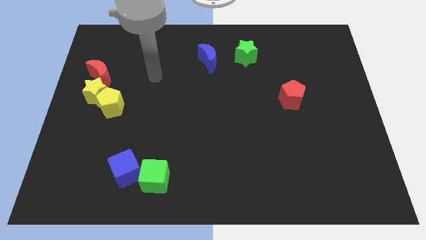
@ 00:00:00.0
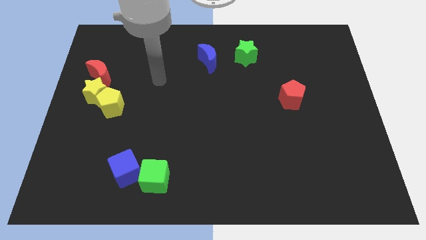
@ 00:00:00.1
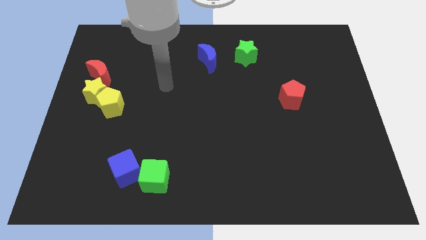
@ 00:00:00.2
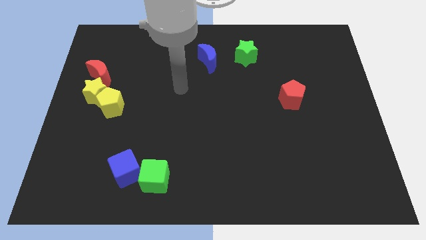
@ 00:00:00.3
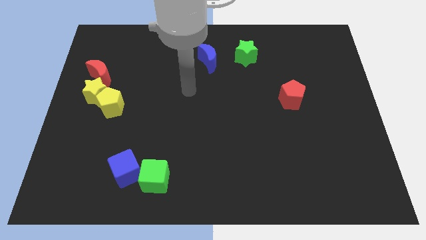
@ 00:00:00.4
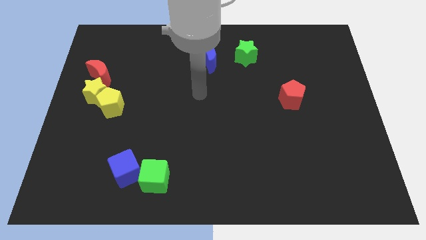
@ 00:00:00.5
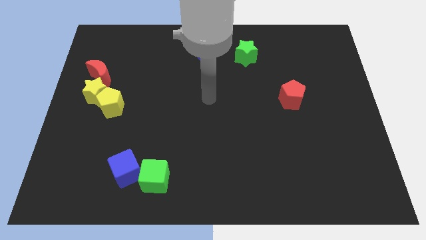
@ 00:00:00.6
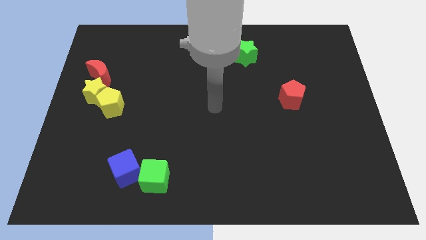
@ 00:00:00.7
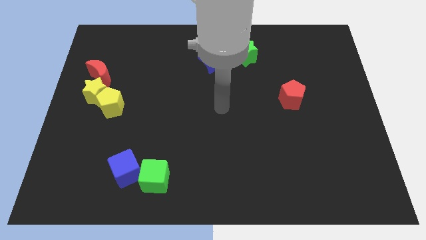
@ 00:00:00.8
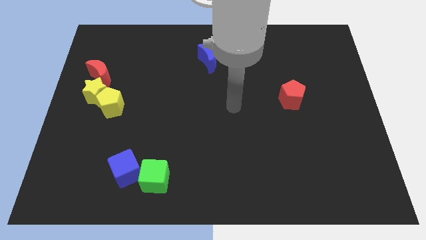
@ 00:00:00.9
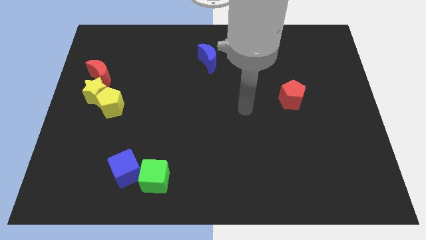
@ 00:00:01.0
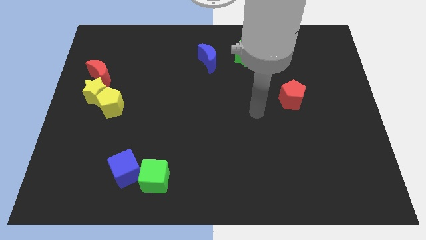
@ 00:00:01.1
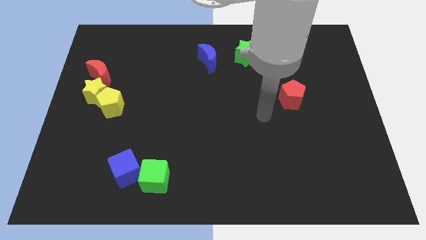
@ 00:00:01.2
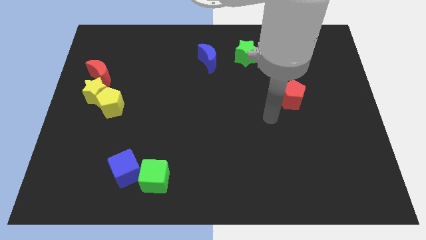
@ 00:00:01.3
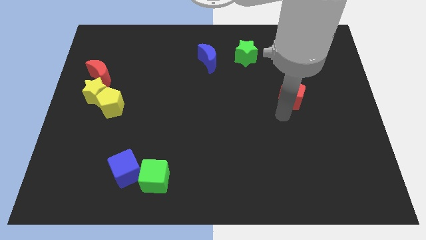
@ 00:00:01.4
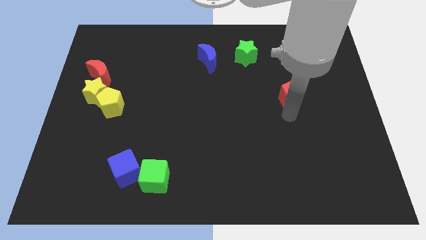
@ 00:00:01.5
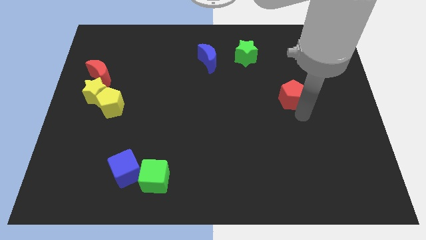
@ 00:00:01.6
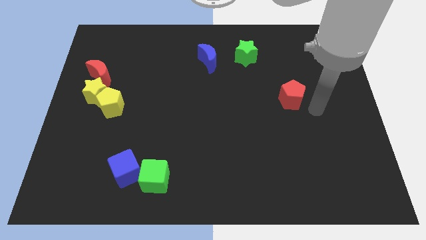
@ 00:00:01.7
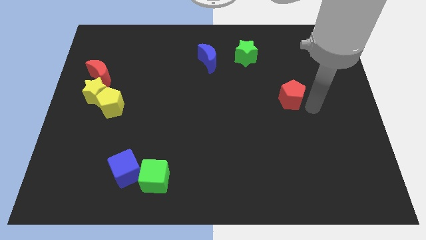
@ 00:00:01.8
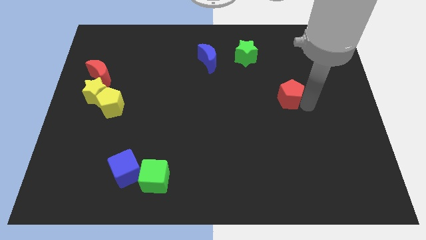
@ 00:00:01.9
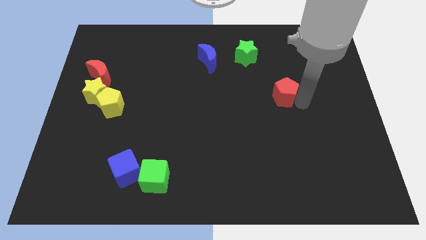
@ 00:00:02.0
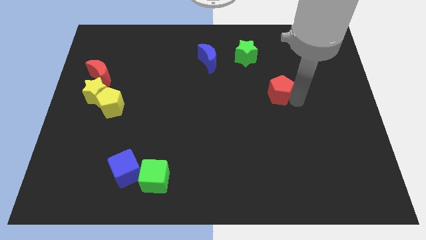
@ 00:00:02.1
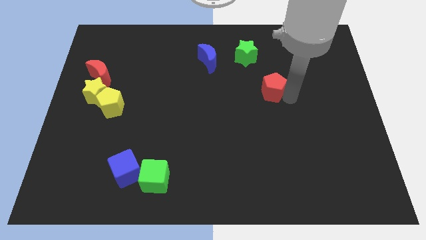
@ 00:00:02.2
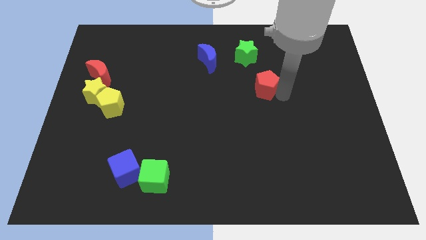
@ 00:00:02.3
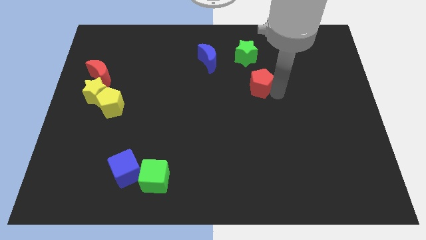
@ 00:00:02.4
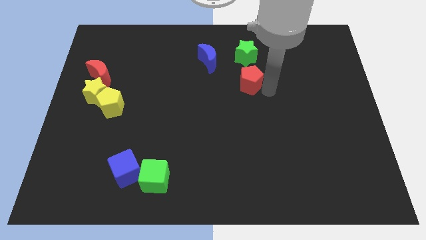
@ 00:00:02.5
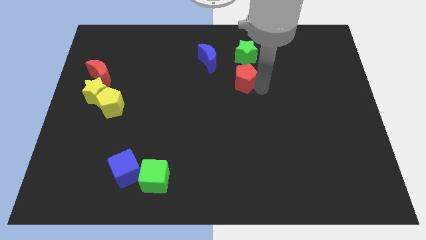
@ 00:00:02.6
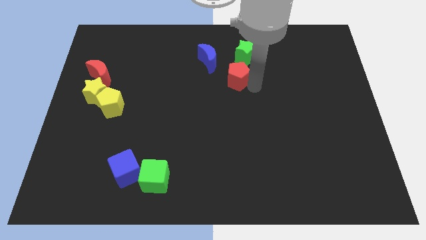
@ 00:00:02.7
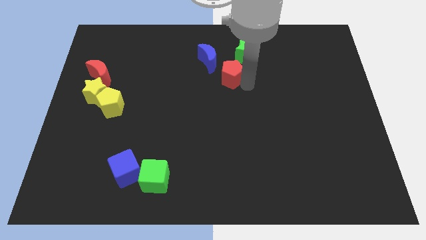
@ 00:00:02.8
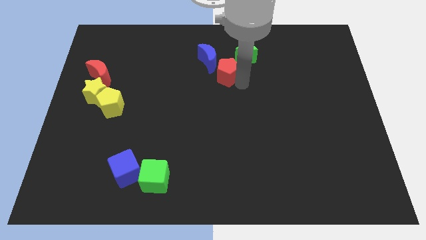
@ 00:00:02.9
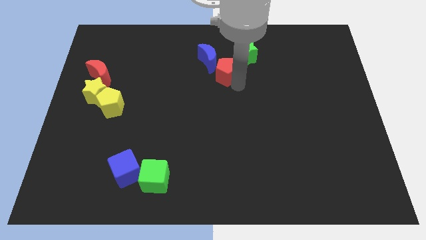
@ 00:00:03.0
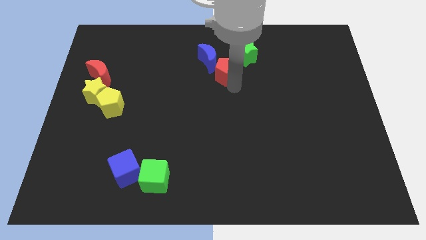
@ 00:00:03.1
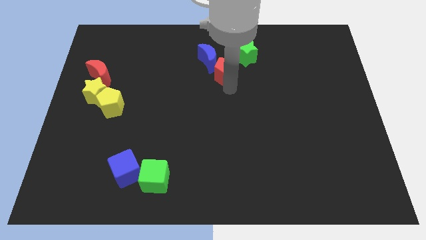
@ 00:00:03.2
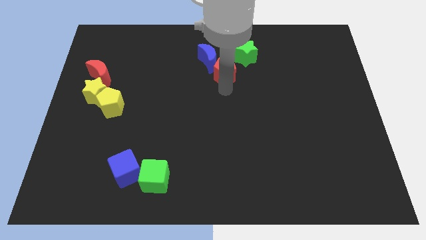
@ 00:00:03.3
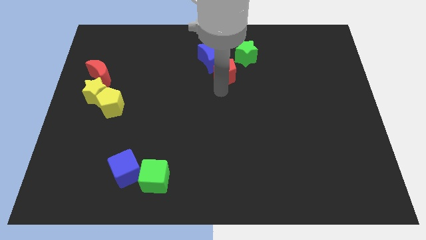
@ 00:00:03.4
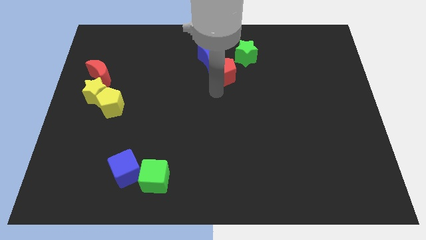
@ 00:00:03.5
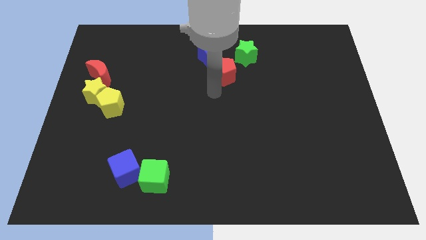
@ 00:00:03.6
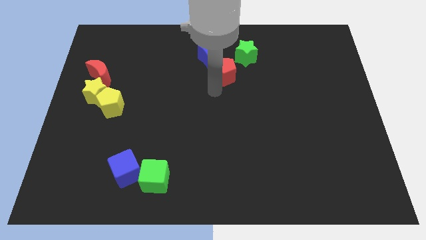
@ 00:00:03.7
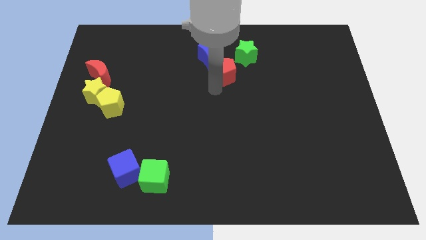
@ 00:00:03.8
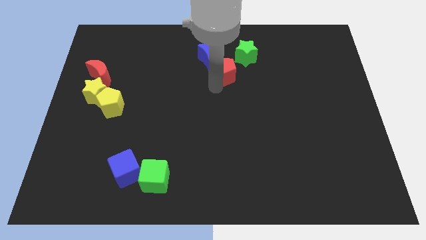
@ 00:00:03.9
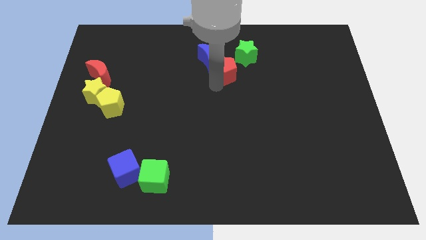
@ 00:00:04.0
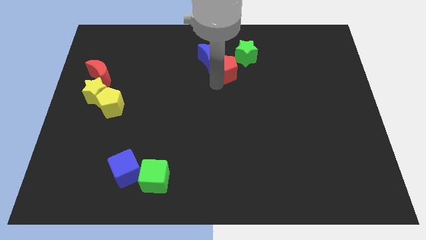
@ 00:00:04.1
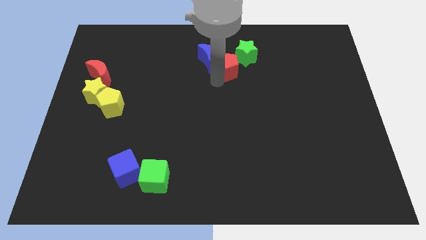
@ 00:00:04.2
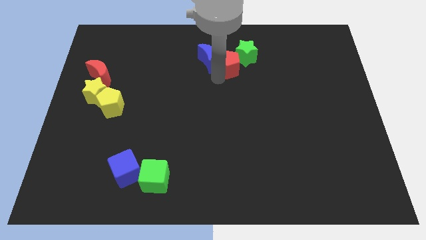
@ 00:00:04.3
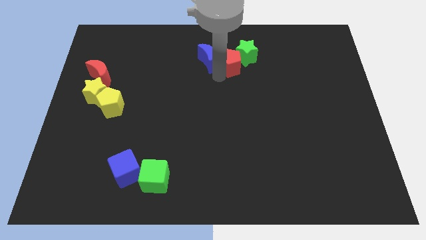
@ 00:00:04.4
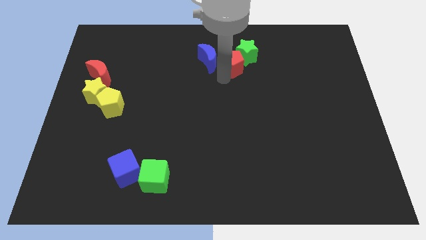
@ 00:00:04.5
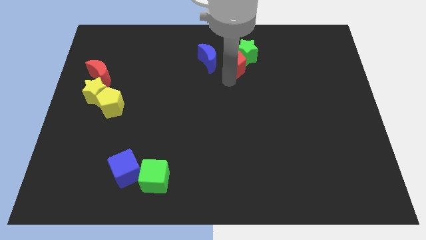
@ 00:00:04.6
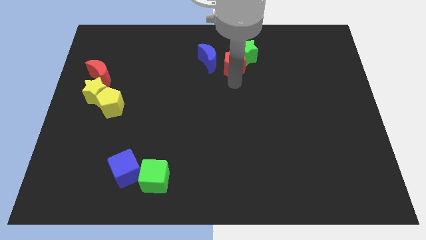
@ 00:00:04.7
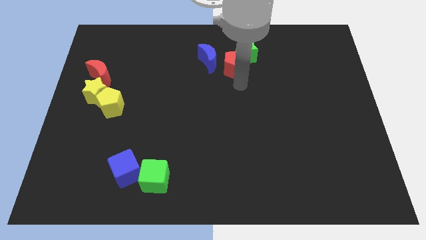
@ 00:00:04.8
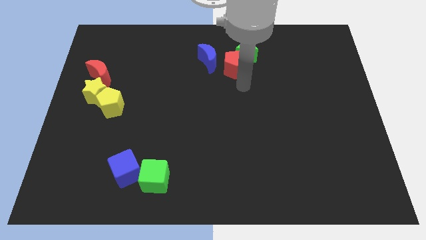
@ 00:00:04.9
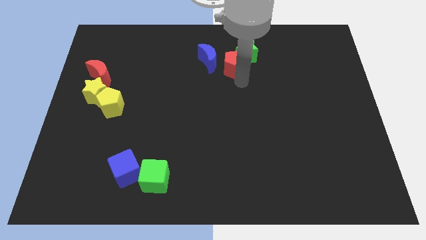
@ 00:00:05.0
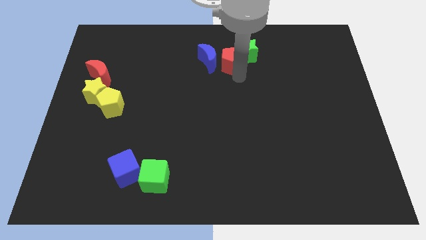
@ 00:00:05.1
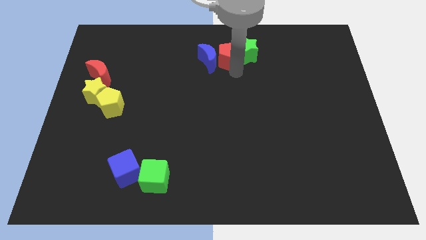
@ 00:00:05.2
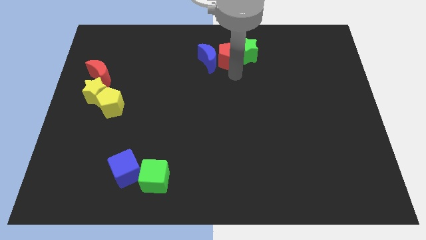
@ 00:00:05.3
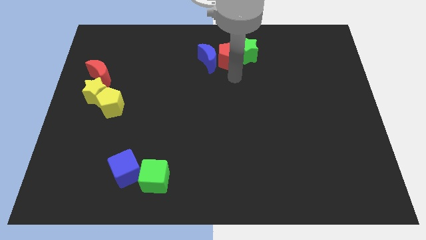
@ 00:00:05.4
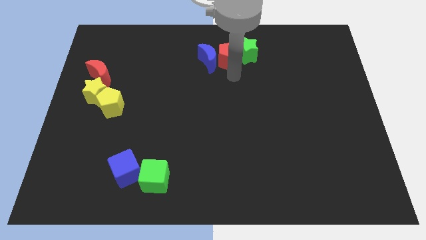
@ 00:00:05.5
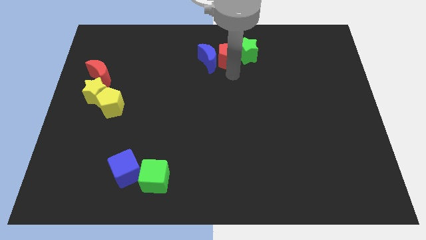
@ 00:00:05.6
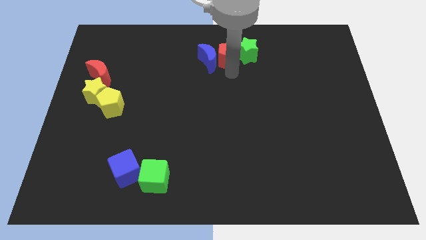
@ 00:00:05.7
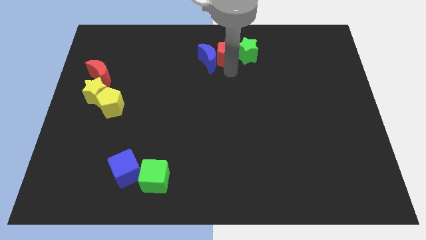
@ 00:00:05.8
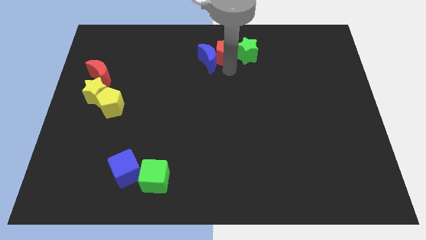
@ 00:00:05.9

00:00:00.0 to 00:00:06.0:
move the red pentagon to the top side

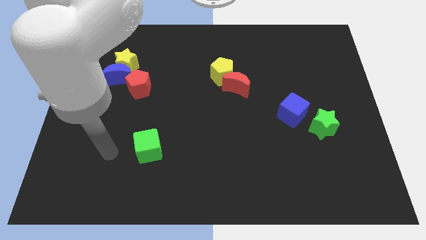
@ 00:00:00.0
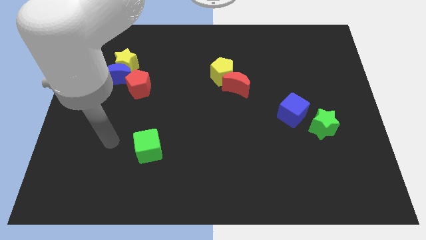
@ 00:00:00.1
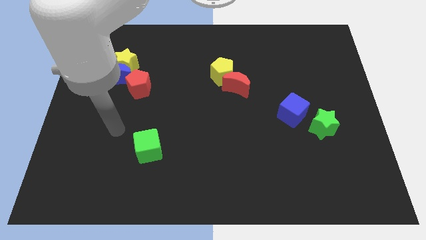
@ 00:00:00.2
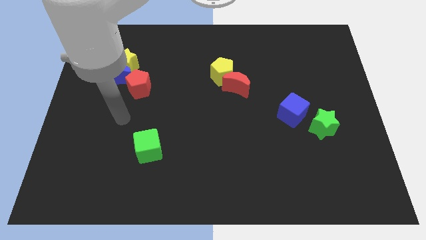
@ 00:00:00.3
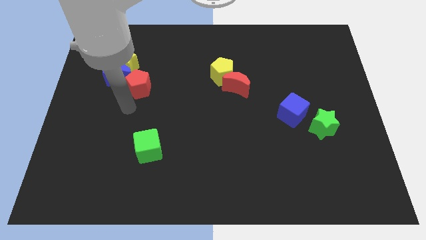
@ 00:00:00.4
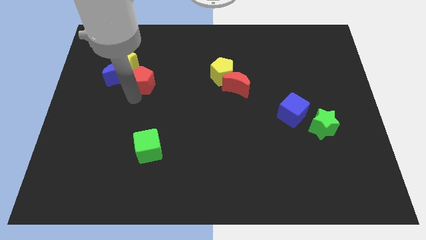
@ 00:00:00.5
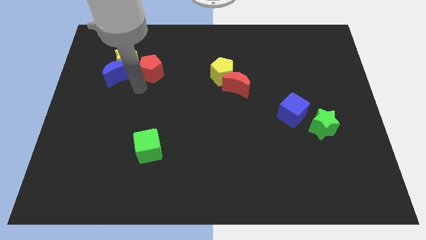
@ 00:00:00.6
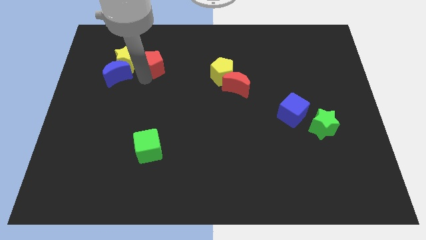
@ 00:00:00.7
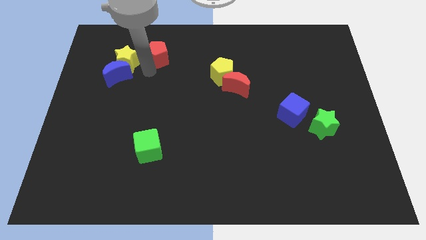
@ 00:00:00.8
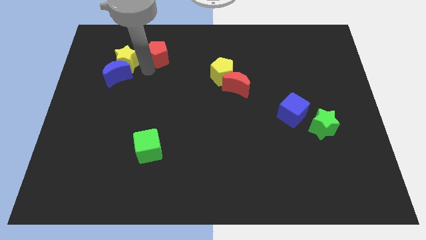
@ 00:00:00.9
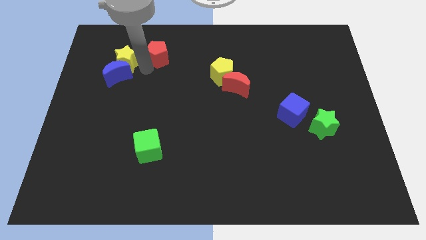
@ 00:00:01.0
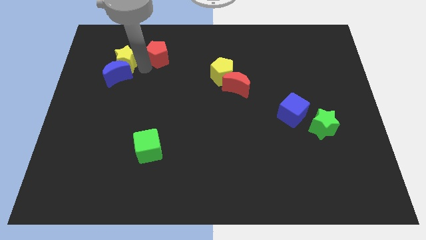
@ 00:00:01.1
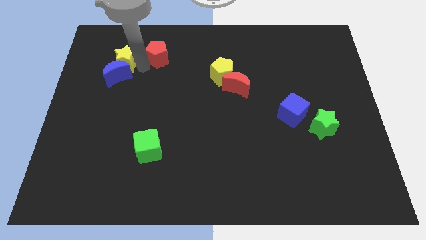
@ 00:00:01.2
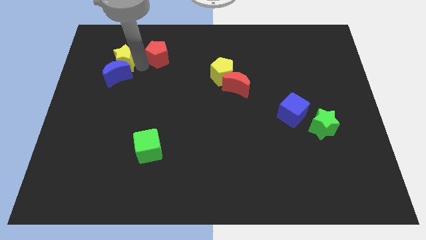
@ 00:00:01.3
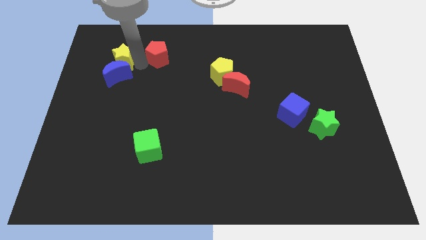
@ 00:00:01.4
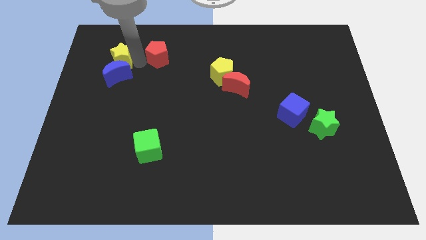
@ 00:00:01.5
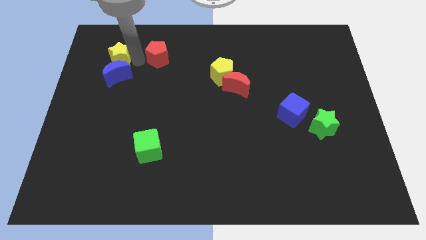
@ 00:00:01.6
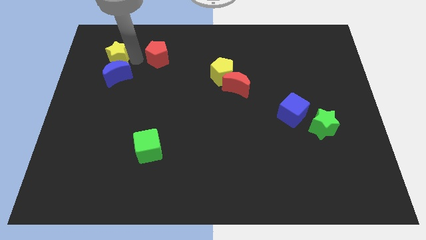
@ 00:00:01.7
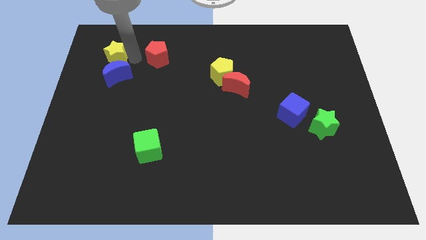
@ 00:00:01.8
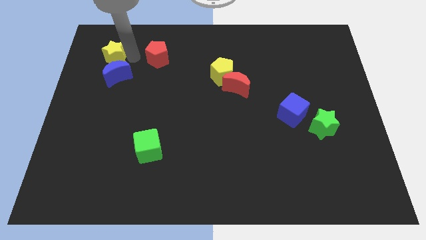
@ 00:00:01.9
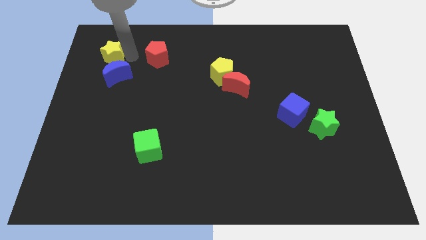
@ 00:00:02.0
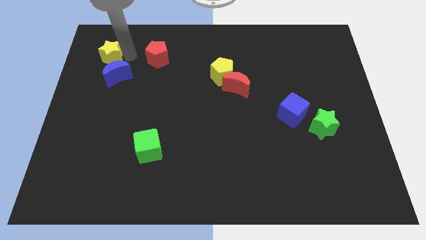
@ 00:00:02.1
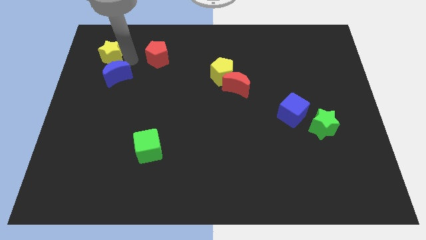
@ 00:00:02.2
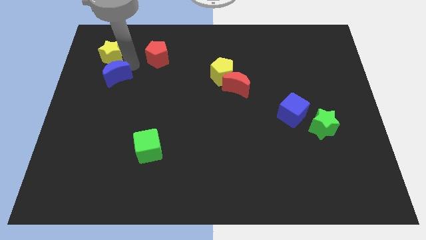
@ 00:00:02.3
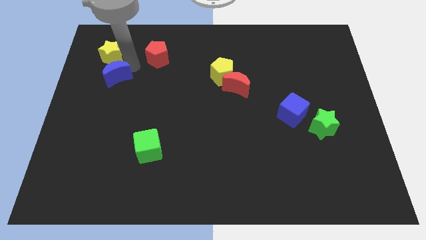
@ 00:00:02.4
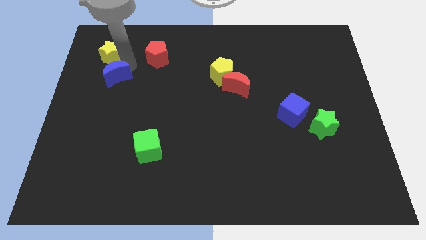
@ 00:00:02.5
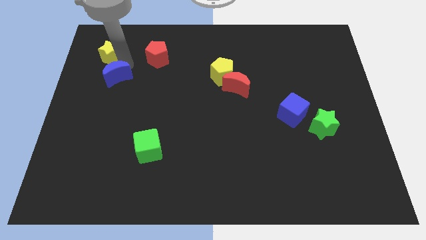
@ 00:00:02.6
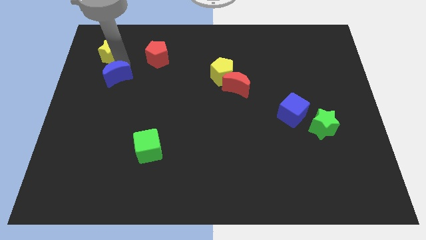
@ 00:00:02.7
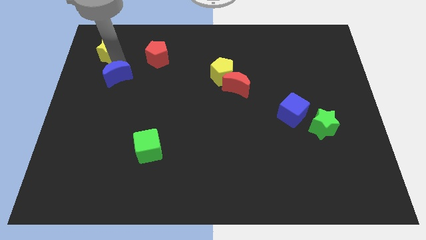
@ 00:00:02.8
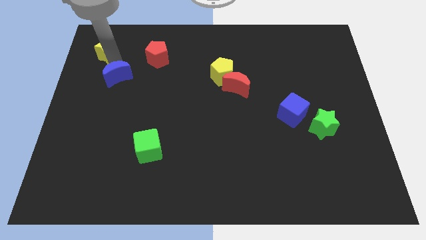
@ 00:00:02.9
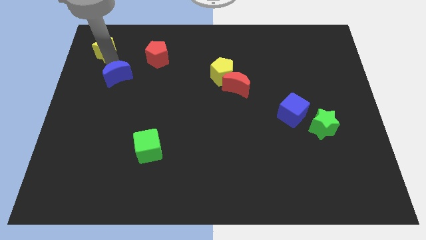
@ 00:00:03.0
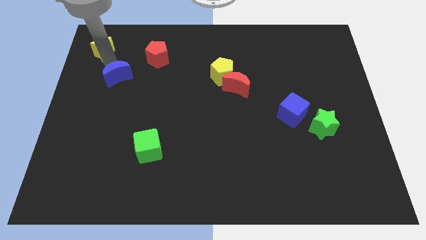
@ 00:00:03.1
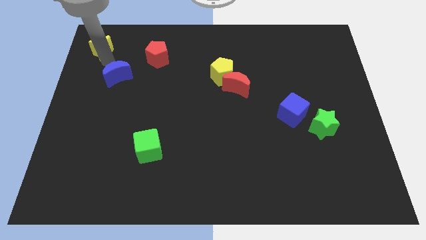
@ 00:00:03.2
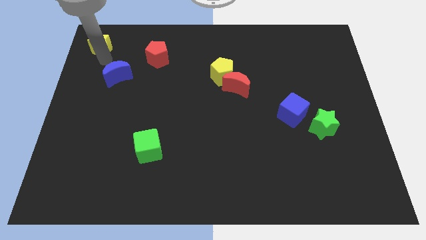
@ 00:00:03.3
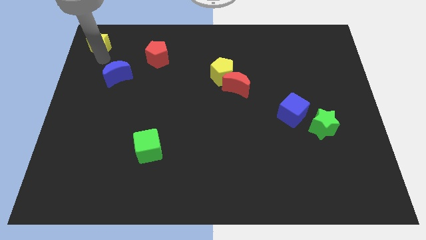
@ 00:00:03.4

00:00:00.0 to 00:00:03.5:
slide the yellow star to the top left of the board
